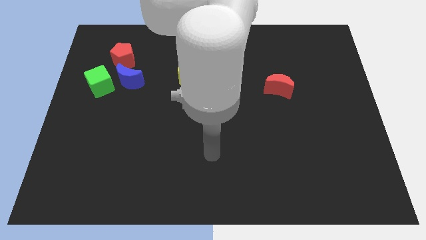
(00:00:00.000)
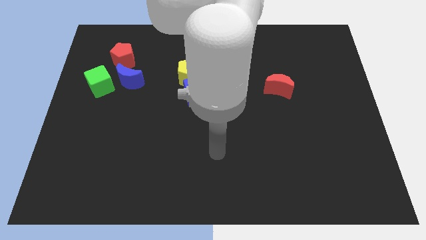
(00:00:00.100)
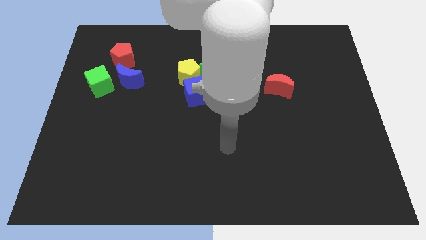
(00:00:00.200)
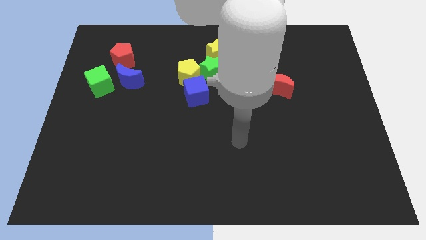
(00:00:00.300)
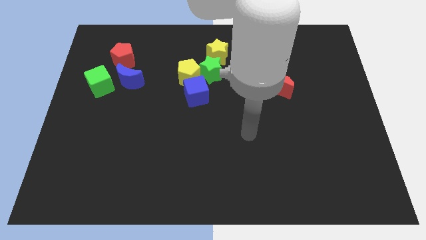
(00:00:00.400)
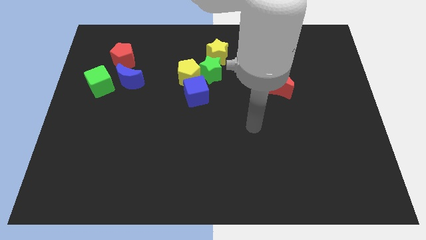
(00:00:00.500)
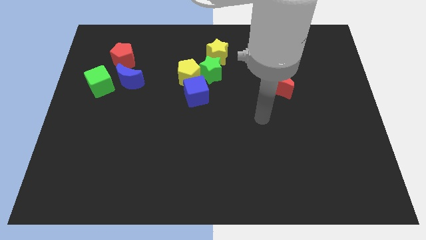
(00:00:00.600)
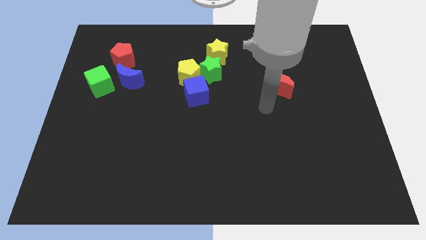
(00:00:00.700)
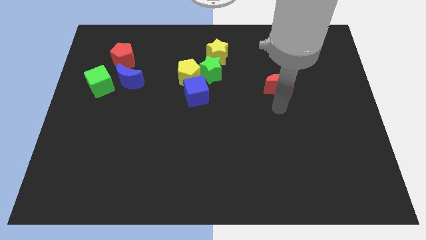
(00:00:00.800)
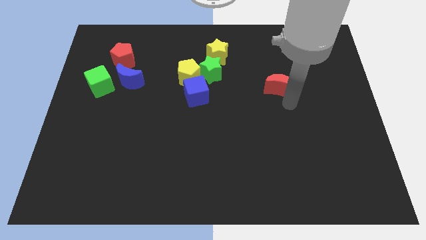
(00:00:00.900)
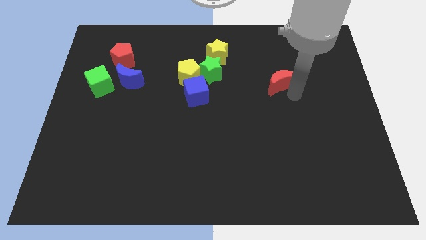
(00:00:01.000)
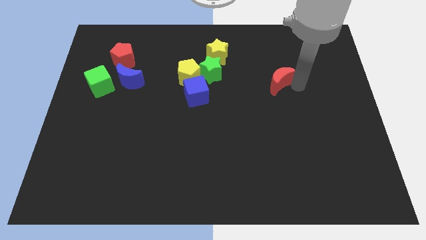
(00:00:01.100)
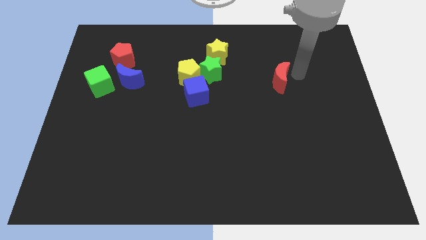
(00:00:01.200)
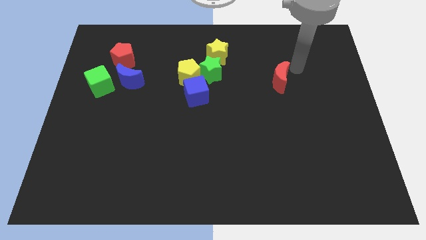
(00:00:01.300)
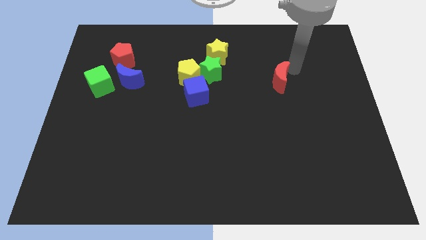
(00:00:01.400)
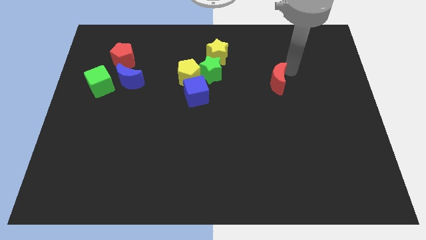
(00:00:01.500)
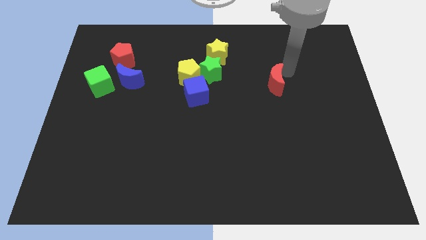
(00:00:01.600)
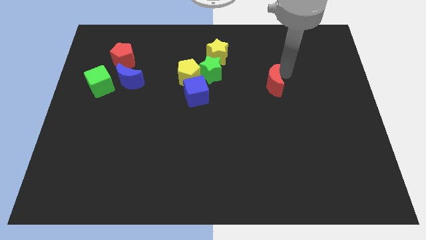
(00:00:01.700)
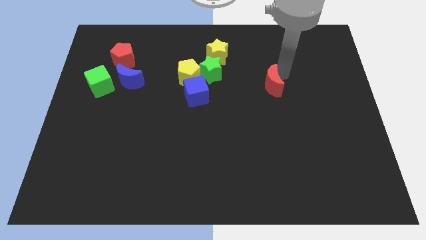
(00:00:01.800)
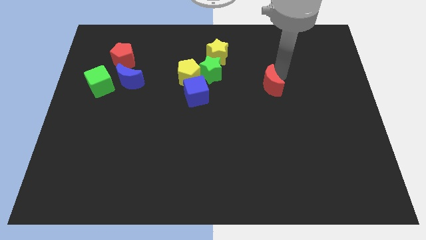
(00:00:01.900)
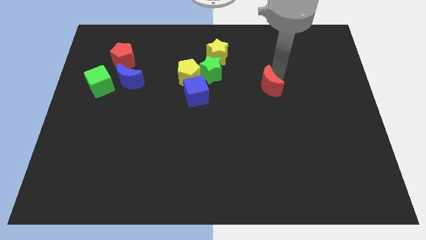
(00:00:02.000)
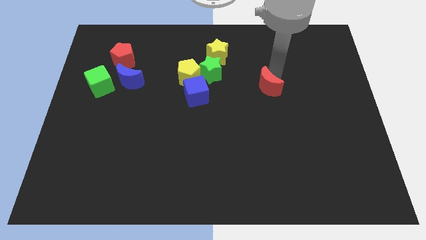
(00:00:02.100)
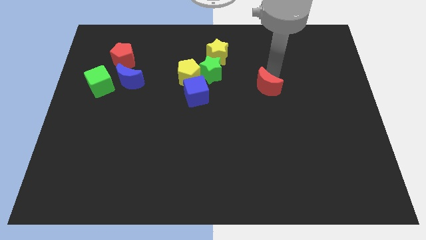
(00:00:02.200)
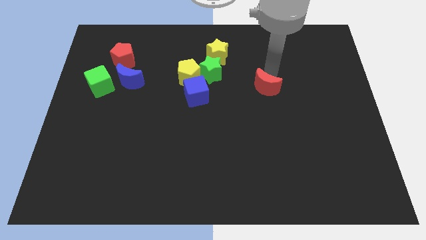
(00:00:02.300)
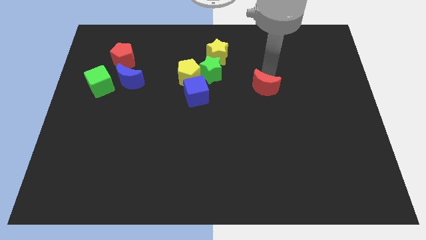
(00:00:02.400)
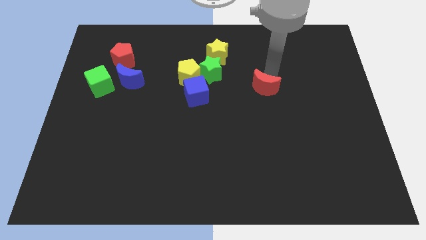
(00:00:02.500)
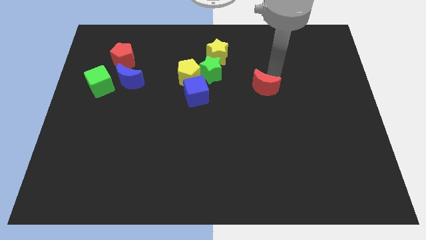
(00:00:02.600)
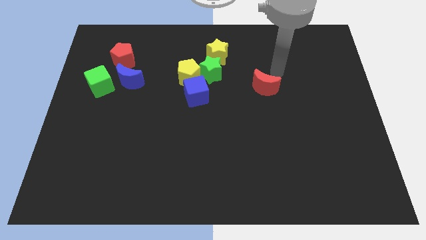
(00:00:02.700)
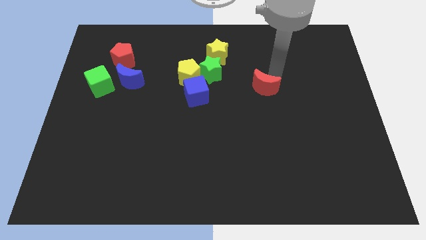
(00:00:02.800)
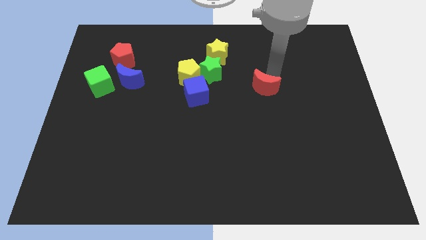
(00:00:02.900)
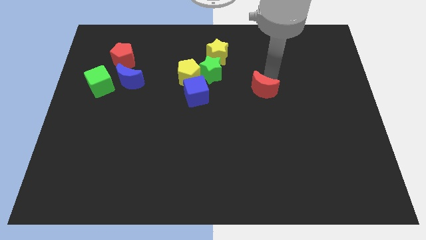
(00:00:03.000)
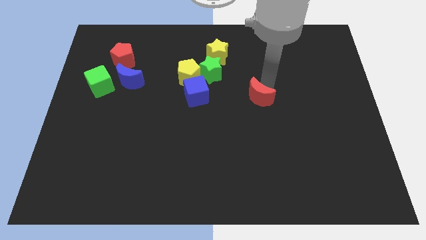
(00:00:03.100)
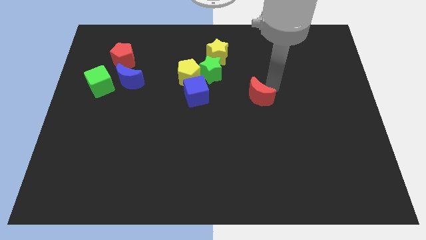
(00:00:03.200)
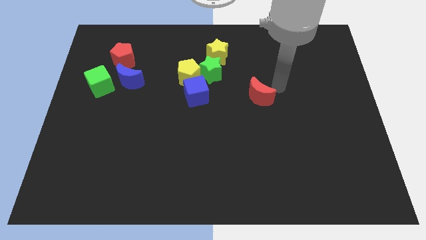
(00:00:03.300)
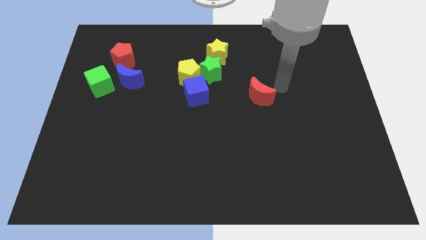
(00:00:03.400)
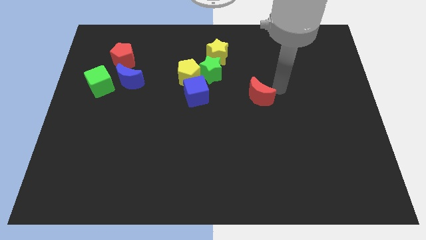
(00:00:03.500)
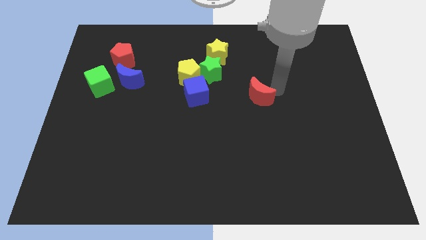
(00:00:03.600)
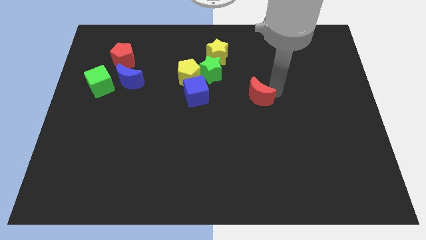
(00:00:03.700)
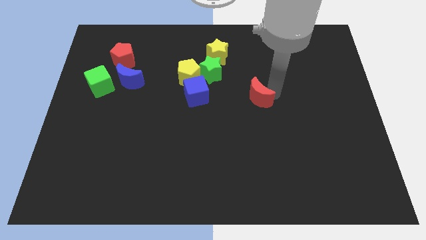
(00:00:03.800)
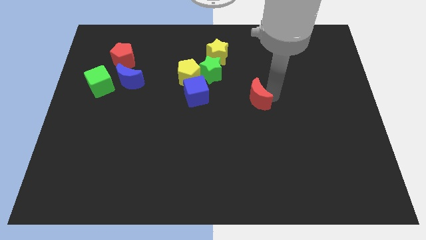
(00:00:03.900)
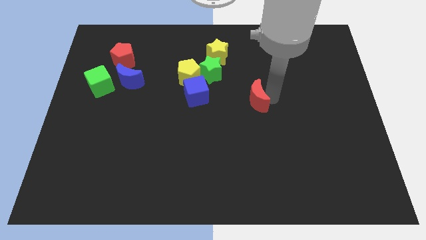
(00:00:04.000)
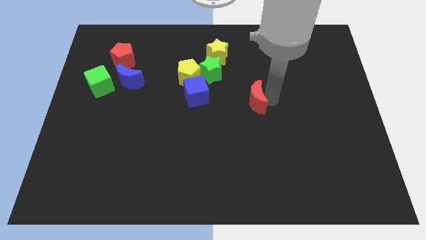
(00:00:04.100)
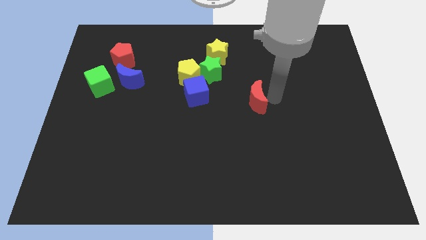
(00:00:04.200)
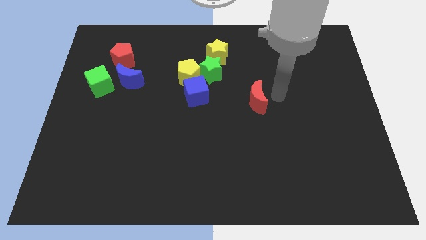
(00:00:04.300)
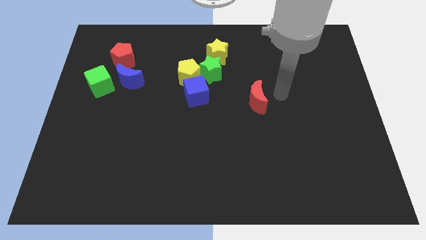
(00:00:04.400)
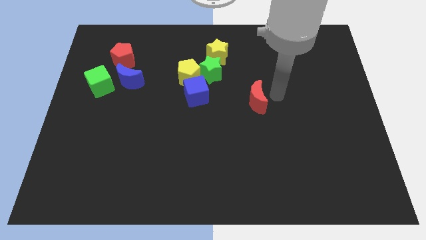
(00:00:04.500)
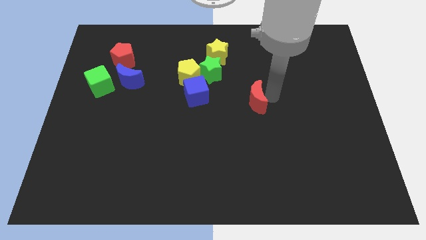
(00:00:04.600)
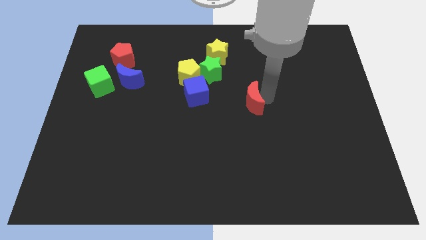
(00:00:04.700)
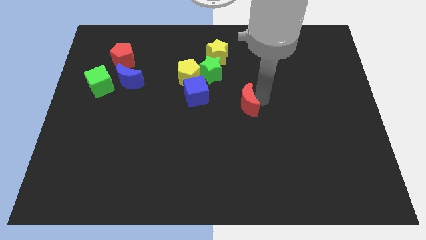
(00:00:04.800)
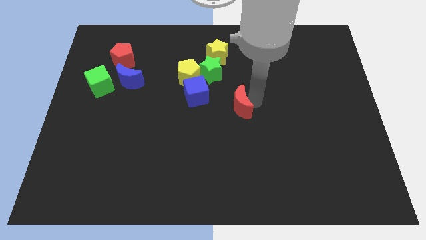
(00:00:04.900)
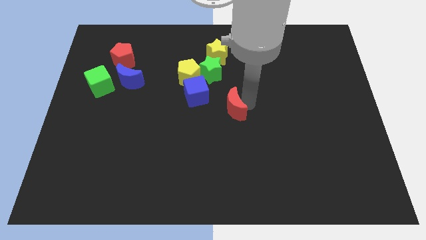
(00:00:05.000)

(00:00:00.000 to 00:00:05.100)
push the red moon to the bottom right side of the blue cube

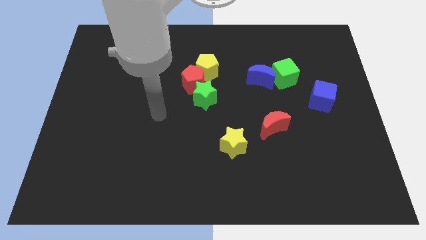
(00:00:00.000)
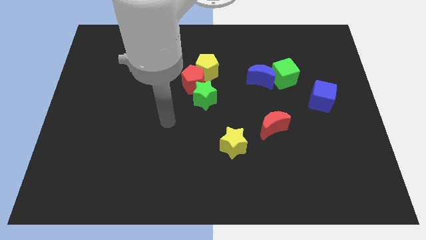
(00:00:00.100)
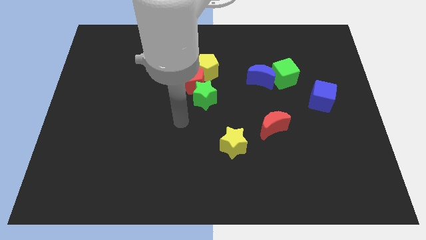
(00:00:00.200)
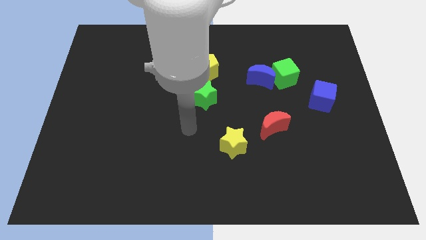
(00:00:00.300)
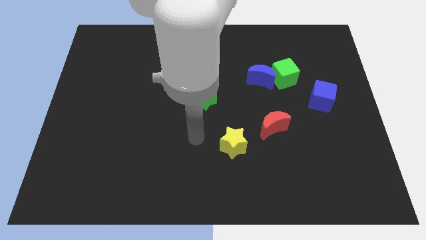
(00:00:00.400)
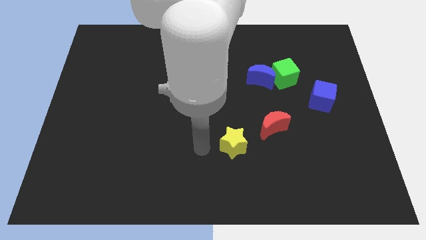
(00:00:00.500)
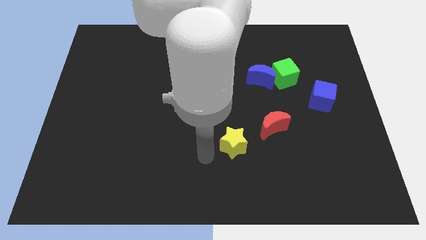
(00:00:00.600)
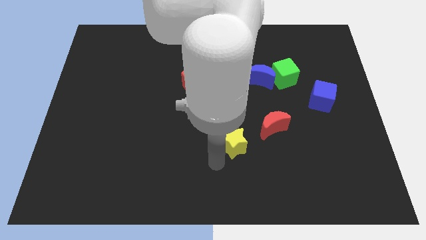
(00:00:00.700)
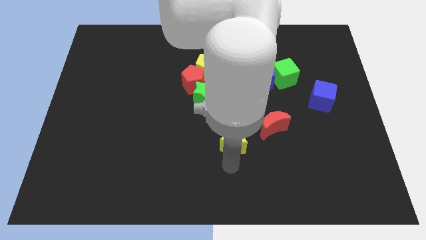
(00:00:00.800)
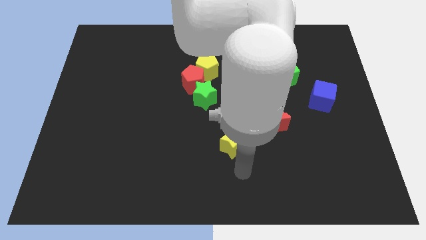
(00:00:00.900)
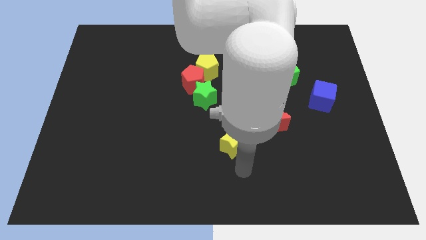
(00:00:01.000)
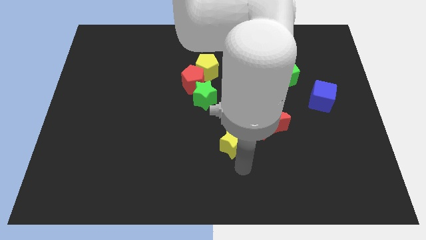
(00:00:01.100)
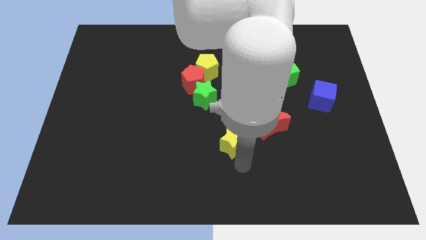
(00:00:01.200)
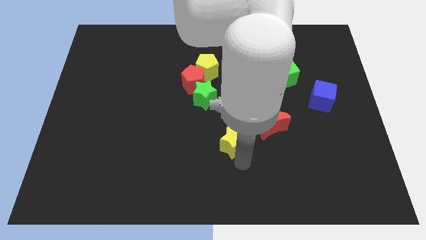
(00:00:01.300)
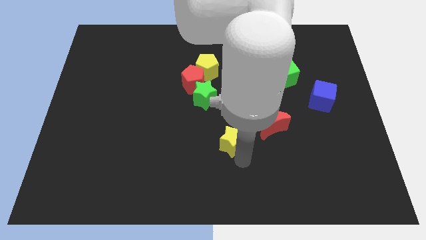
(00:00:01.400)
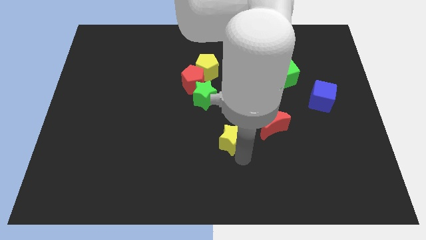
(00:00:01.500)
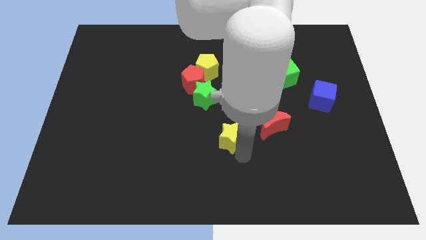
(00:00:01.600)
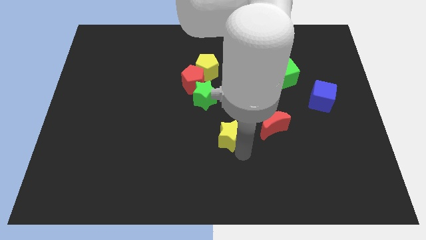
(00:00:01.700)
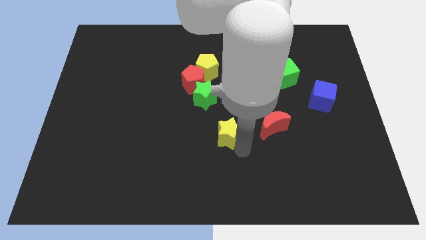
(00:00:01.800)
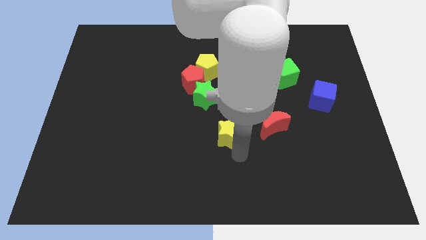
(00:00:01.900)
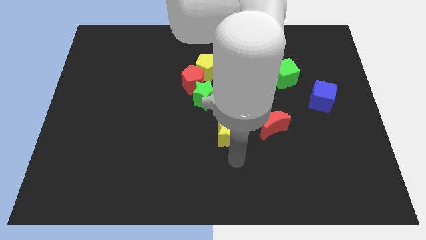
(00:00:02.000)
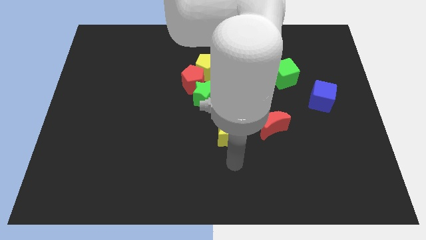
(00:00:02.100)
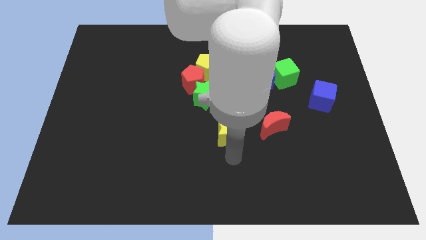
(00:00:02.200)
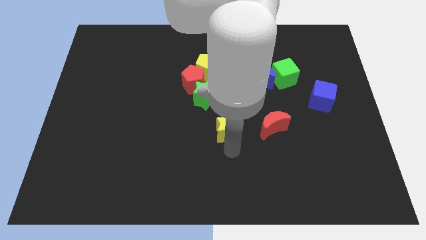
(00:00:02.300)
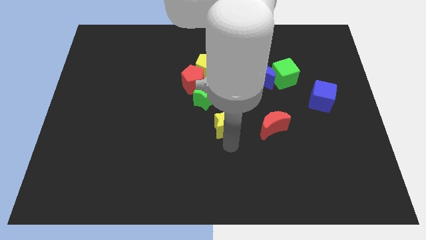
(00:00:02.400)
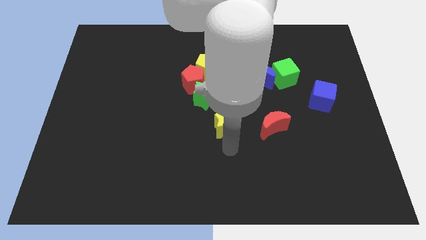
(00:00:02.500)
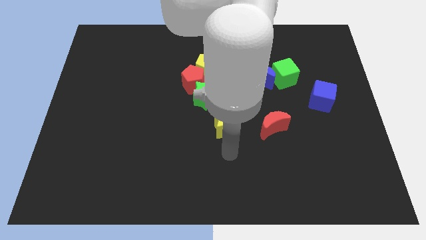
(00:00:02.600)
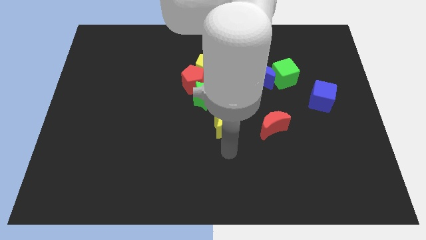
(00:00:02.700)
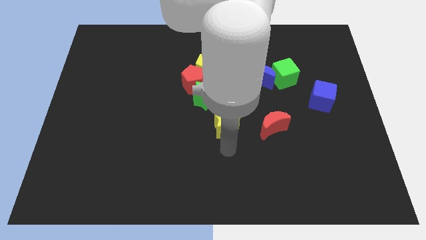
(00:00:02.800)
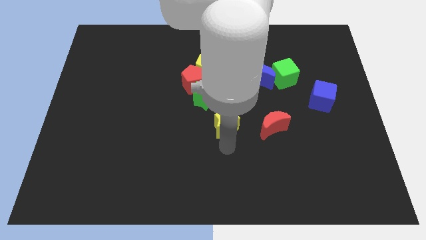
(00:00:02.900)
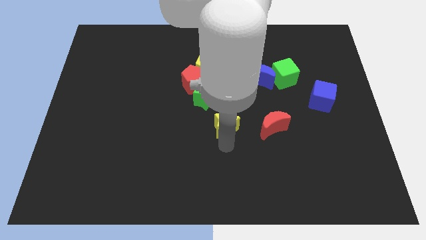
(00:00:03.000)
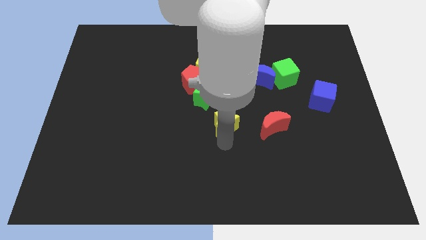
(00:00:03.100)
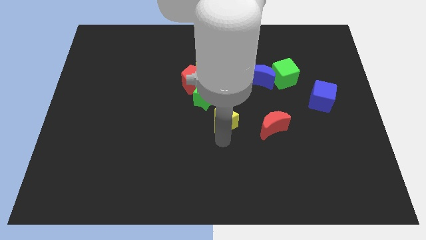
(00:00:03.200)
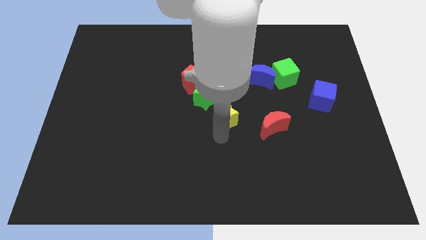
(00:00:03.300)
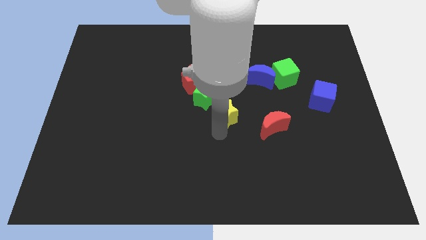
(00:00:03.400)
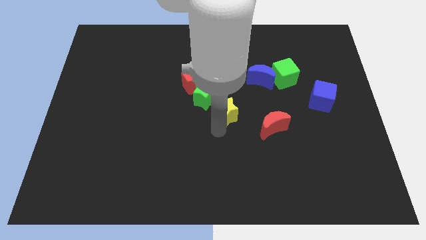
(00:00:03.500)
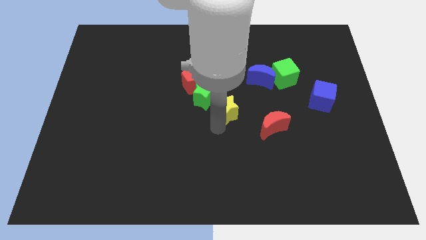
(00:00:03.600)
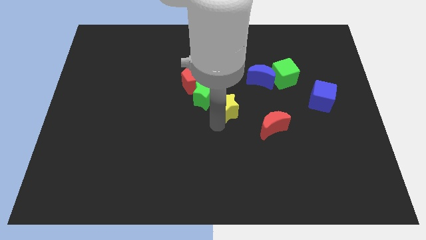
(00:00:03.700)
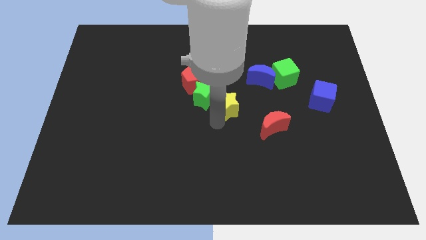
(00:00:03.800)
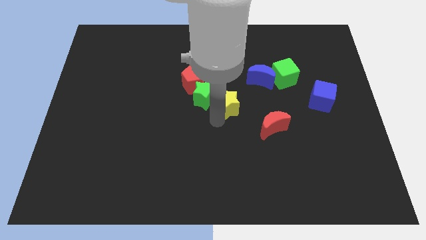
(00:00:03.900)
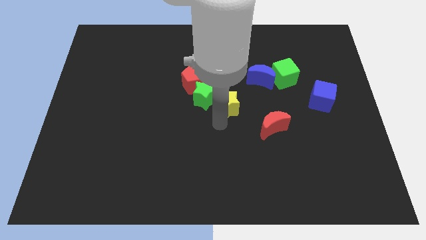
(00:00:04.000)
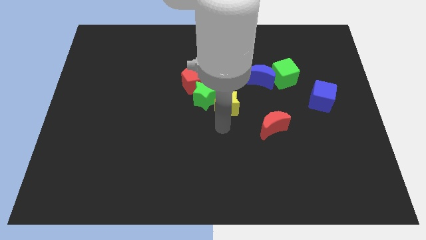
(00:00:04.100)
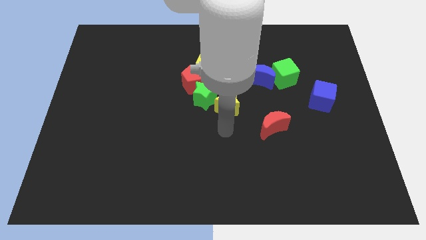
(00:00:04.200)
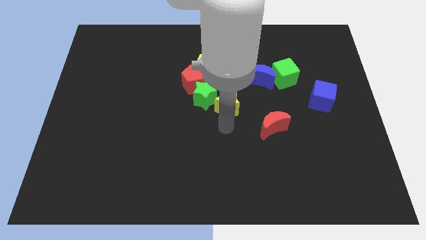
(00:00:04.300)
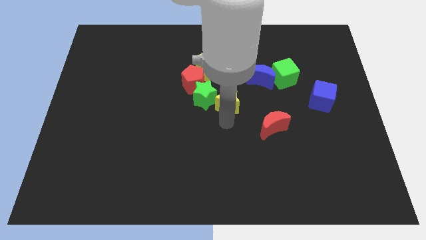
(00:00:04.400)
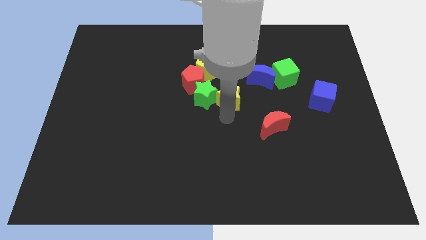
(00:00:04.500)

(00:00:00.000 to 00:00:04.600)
push the yellow star diagonally up and to the right of the green star
